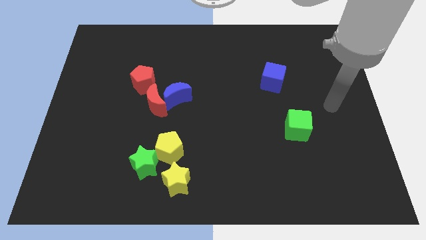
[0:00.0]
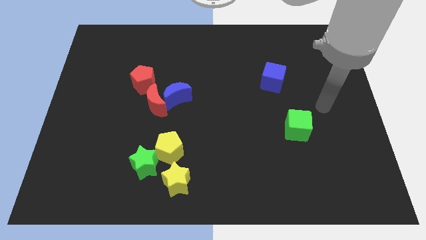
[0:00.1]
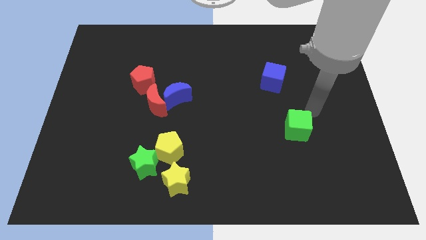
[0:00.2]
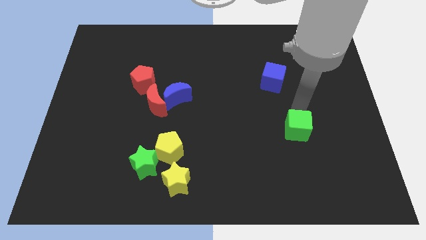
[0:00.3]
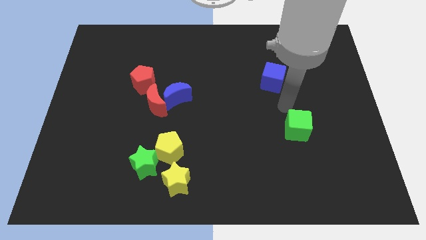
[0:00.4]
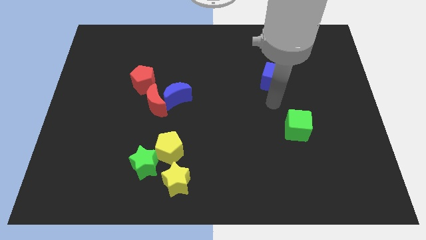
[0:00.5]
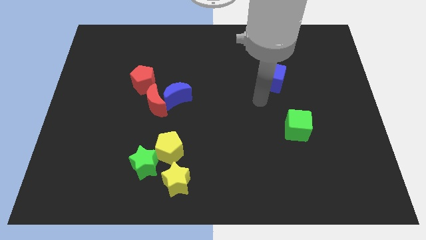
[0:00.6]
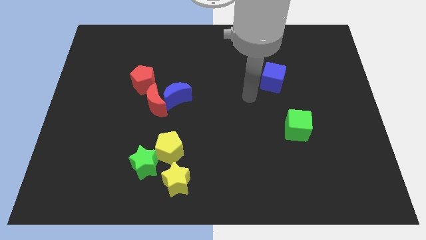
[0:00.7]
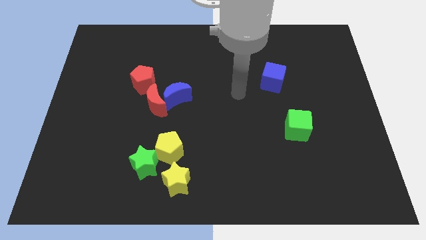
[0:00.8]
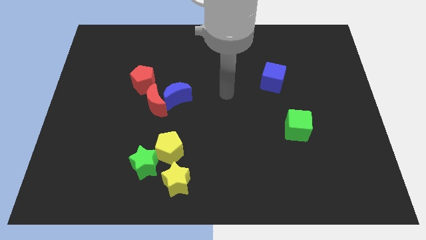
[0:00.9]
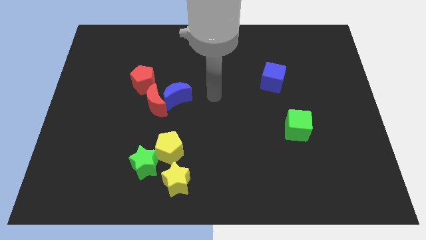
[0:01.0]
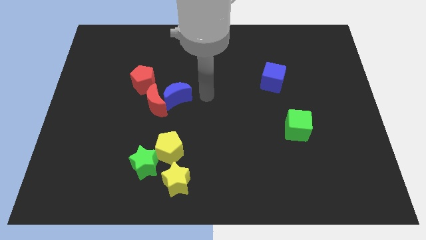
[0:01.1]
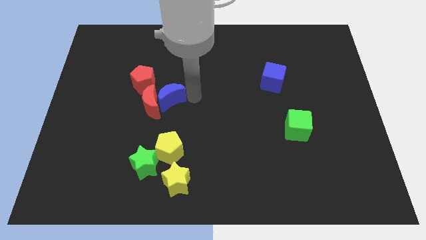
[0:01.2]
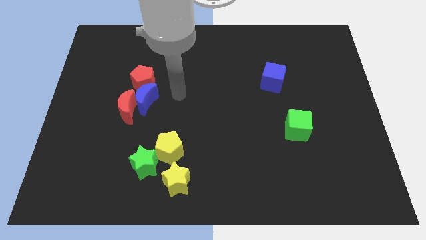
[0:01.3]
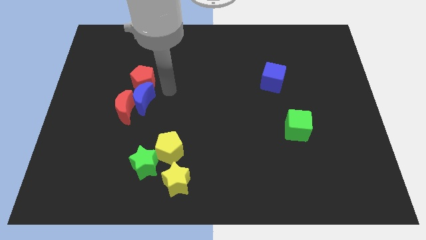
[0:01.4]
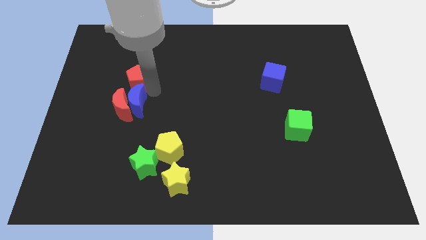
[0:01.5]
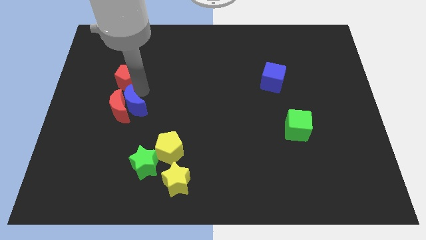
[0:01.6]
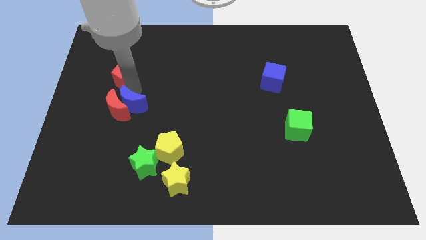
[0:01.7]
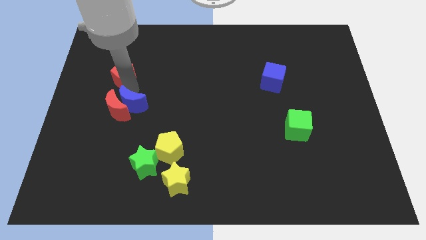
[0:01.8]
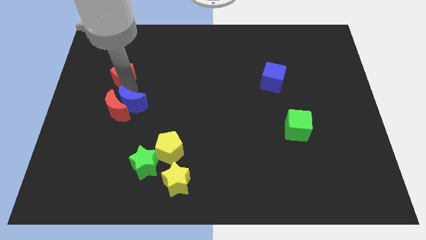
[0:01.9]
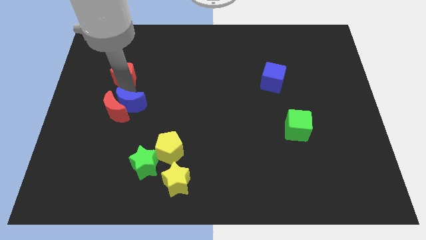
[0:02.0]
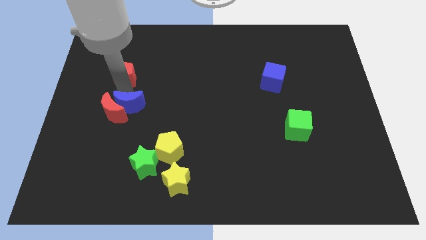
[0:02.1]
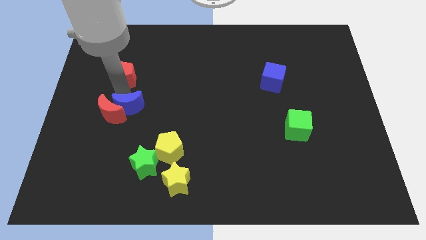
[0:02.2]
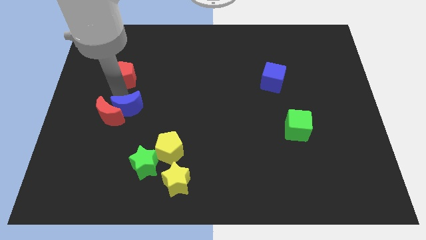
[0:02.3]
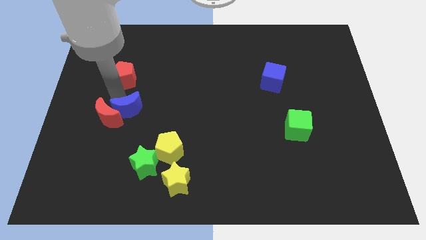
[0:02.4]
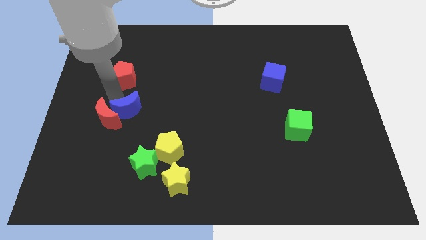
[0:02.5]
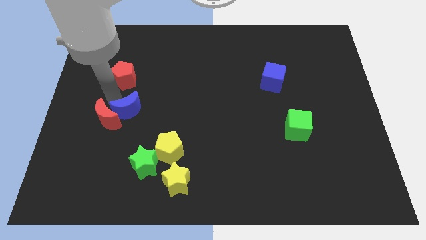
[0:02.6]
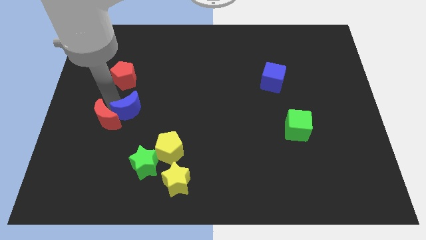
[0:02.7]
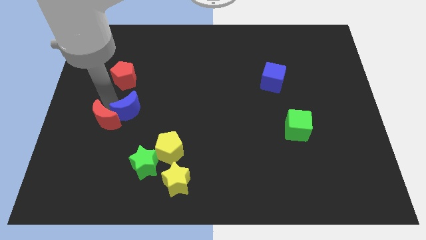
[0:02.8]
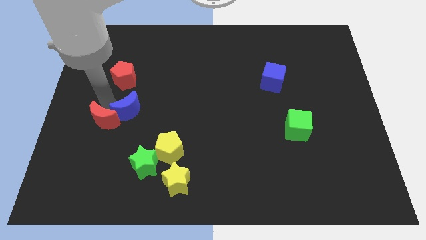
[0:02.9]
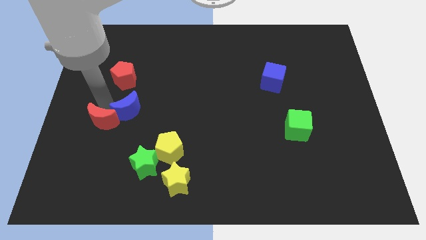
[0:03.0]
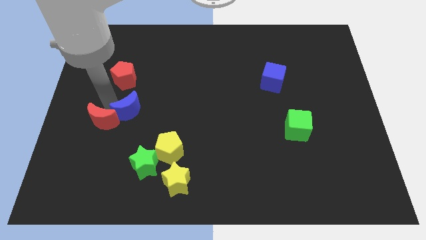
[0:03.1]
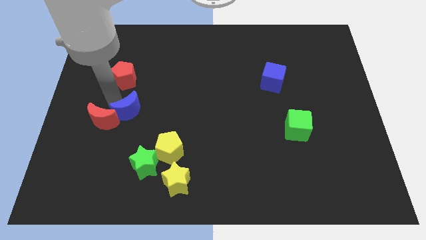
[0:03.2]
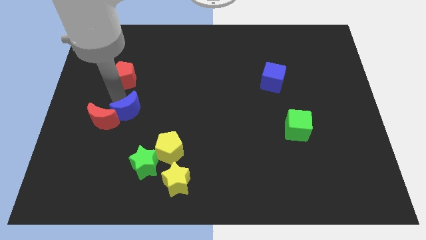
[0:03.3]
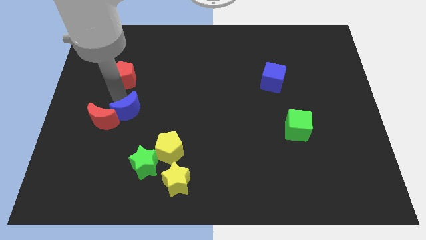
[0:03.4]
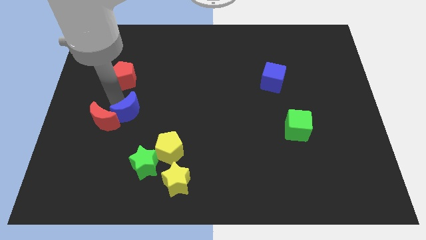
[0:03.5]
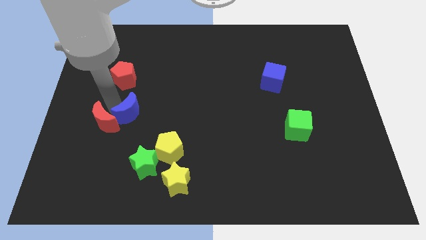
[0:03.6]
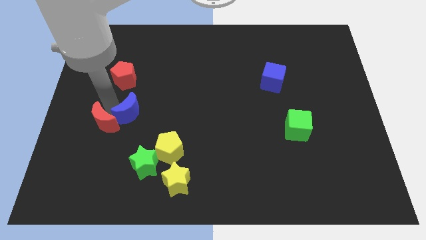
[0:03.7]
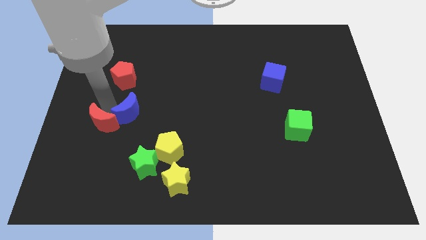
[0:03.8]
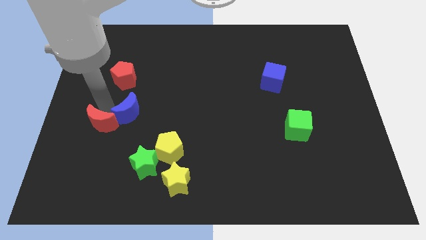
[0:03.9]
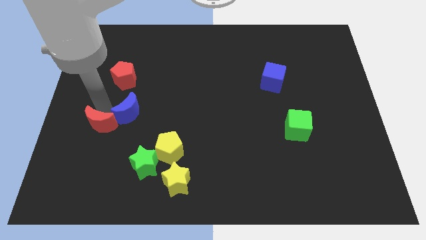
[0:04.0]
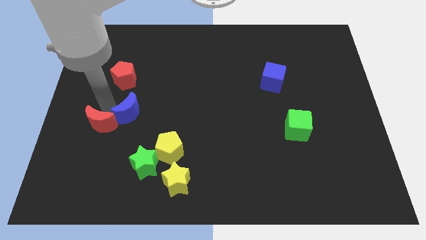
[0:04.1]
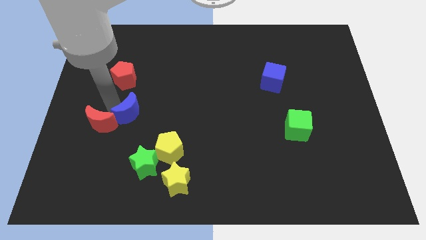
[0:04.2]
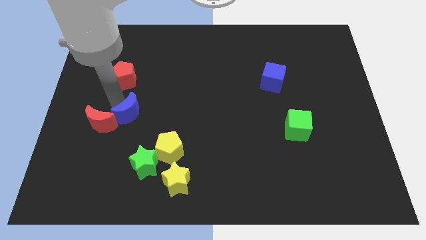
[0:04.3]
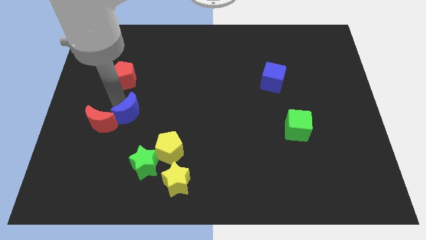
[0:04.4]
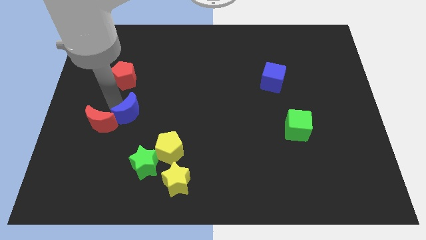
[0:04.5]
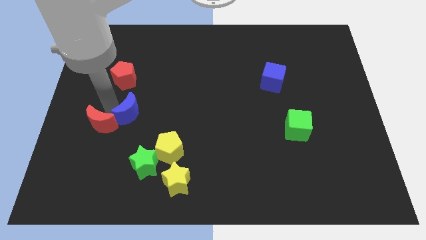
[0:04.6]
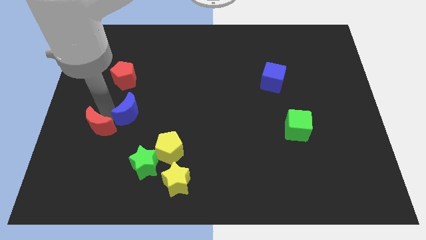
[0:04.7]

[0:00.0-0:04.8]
pull the red moon apart from the blue moon and red pentagon

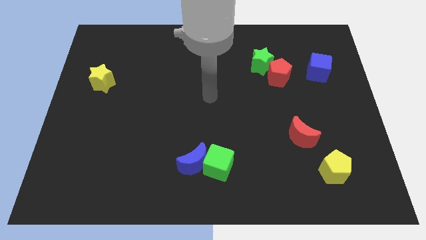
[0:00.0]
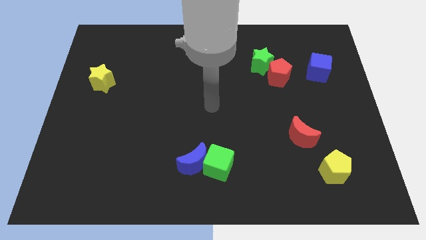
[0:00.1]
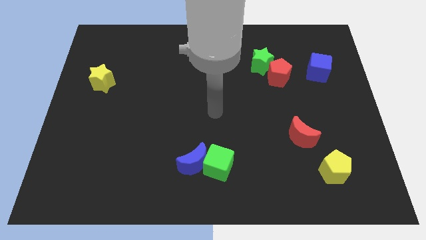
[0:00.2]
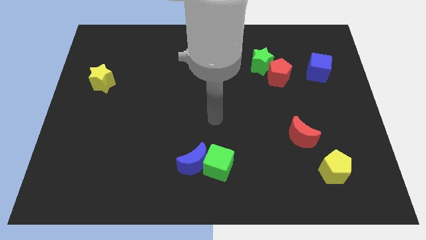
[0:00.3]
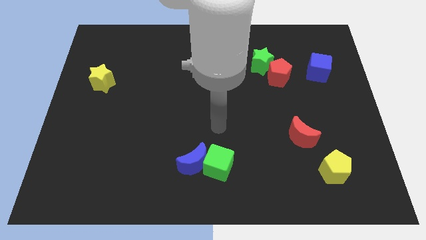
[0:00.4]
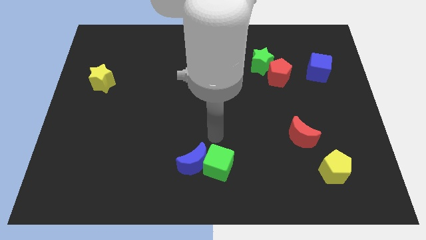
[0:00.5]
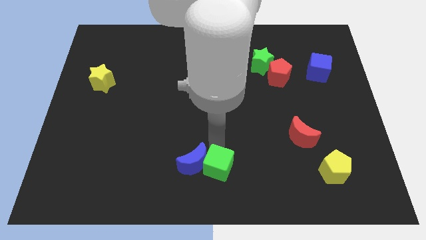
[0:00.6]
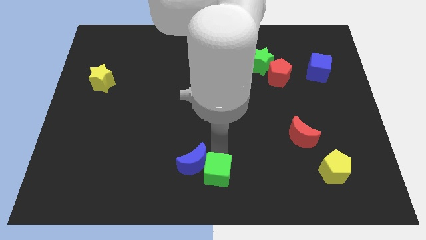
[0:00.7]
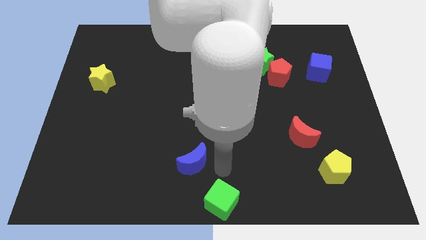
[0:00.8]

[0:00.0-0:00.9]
move the blue moon away from the green cube

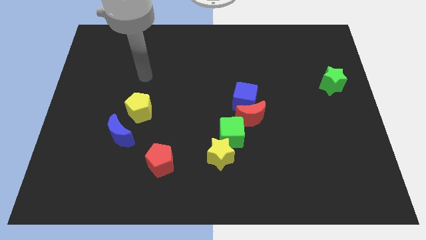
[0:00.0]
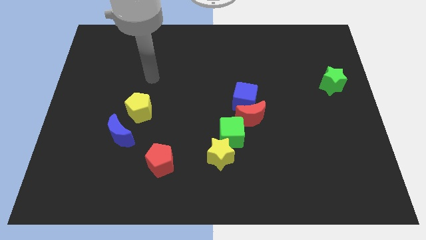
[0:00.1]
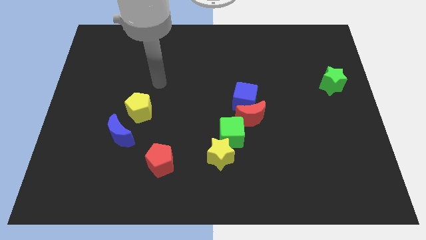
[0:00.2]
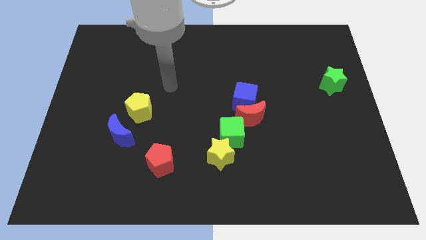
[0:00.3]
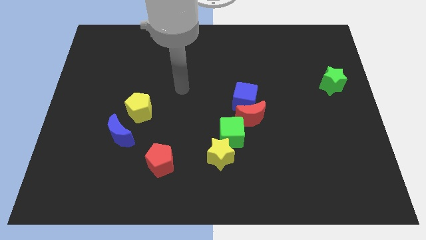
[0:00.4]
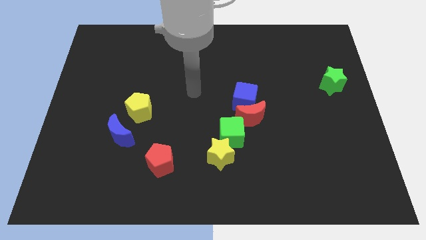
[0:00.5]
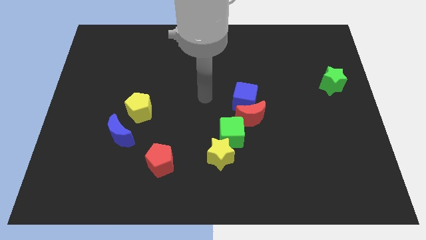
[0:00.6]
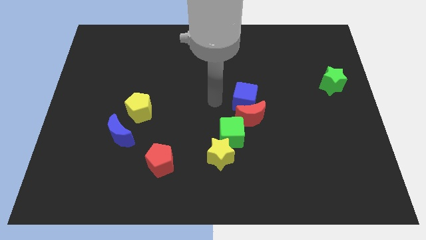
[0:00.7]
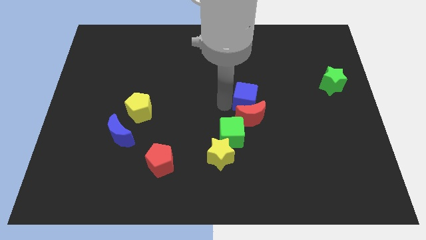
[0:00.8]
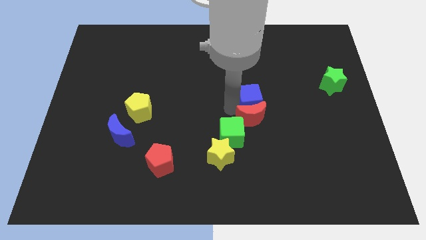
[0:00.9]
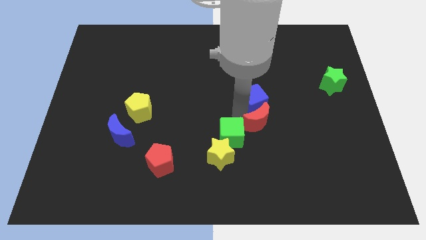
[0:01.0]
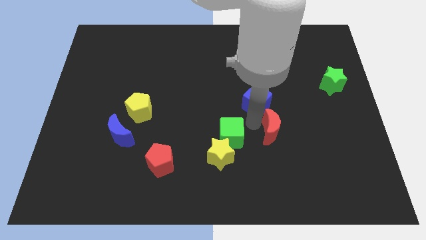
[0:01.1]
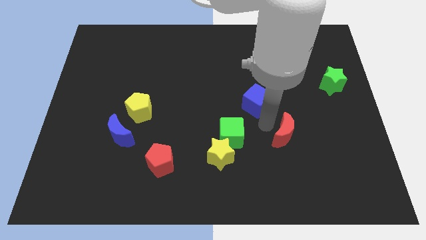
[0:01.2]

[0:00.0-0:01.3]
separate the blue cube from the red moon

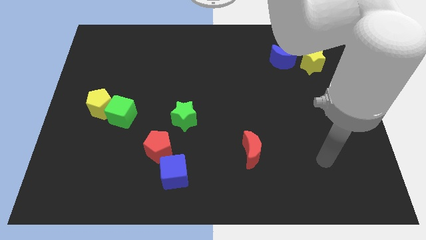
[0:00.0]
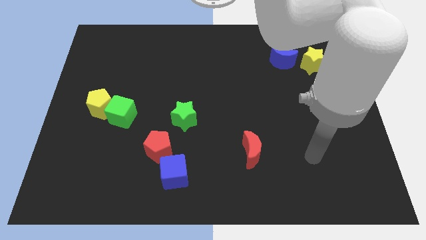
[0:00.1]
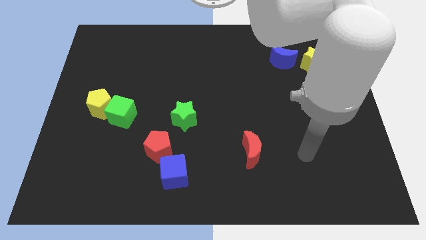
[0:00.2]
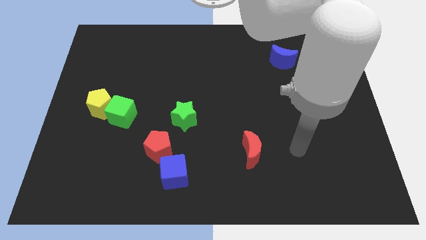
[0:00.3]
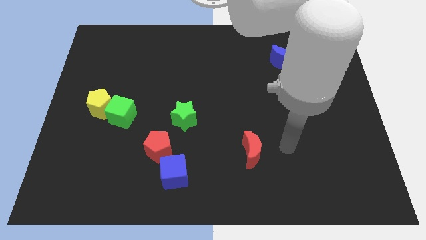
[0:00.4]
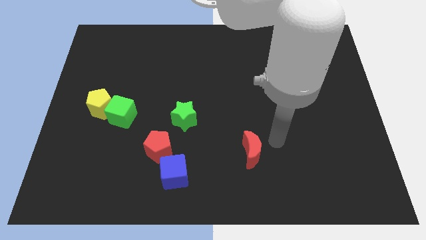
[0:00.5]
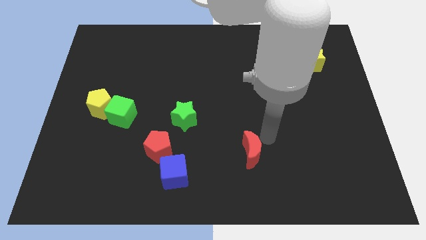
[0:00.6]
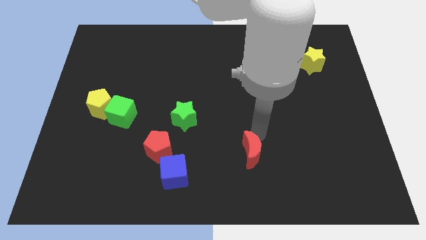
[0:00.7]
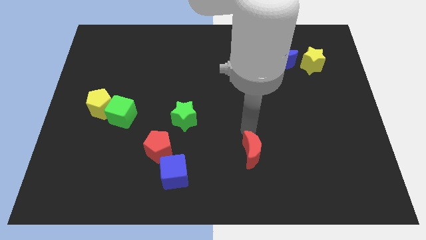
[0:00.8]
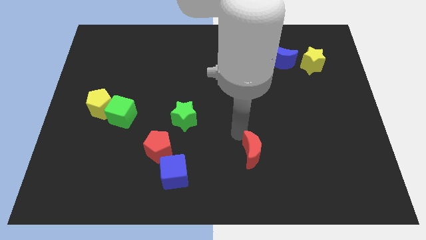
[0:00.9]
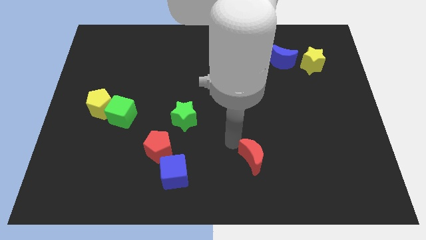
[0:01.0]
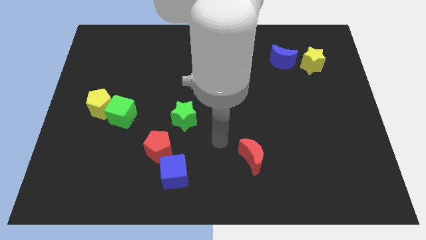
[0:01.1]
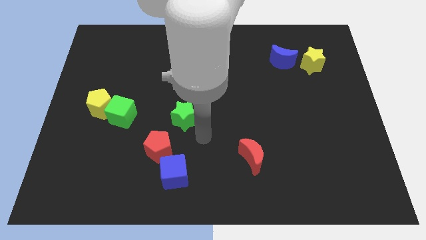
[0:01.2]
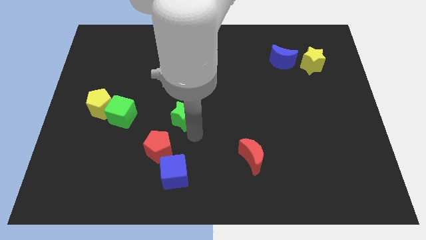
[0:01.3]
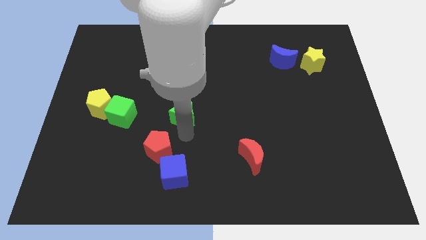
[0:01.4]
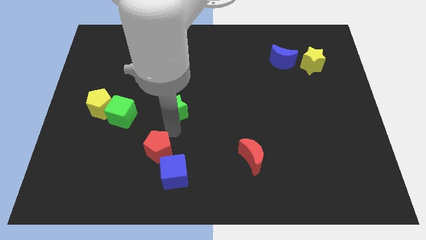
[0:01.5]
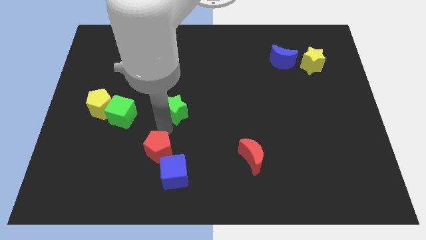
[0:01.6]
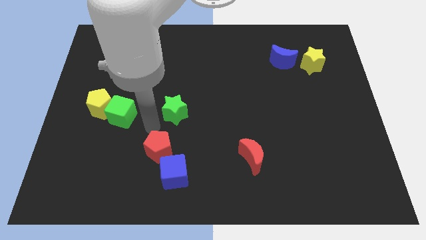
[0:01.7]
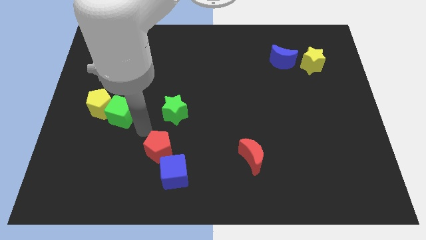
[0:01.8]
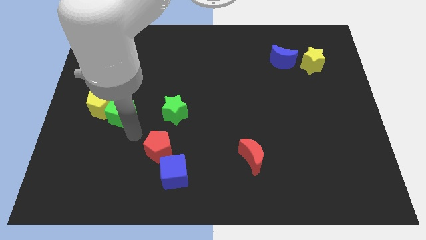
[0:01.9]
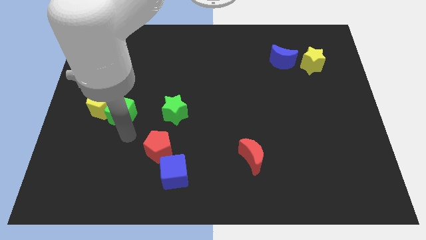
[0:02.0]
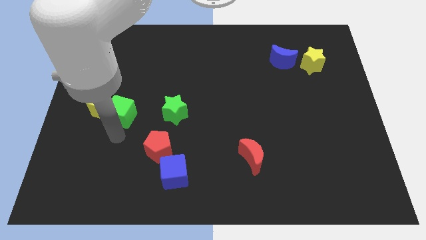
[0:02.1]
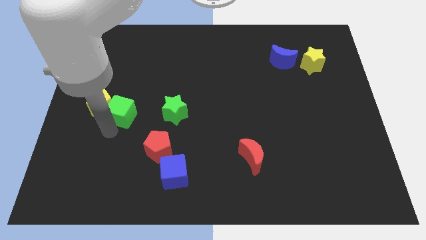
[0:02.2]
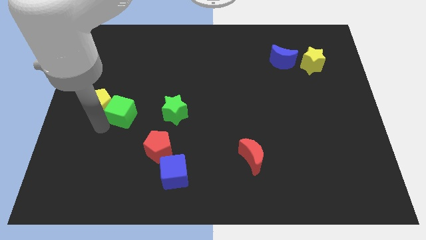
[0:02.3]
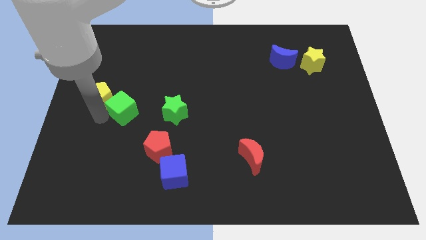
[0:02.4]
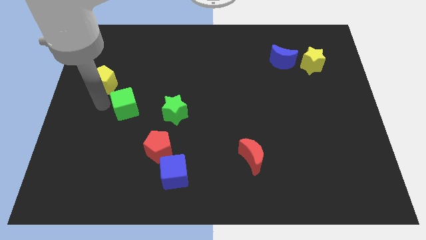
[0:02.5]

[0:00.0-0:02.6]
move the green cube away from the yellow pentagon

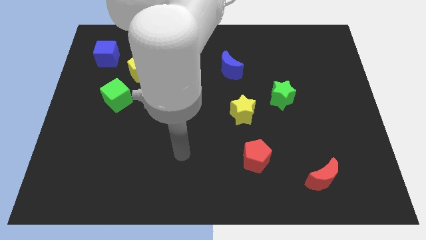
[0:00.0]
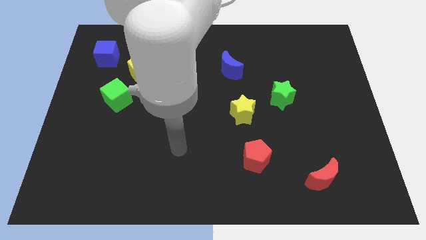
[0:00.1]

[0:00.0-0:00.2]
separate the green cube from the yellow pentagon
